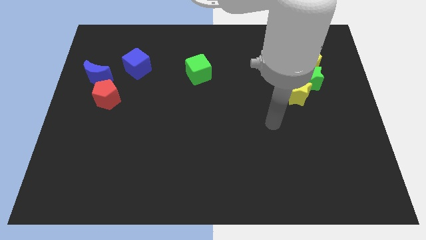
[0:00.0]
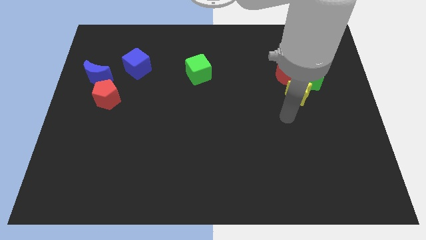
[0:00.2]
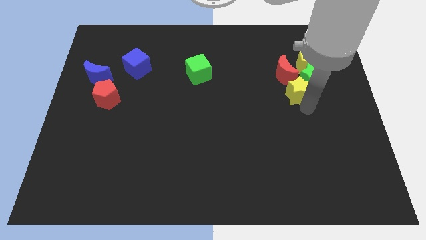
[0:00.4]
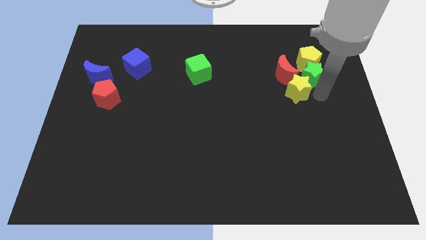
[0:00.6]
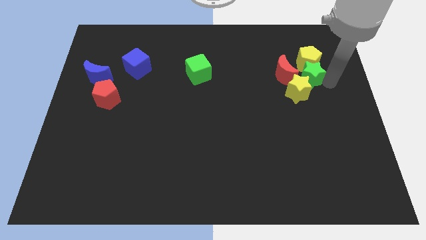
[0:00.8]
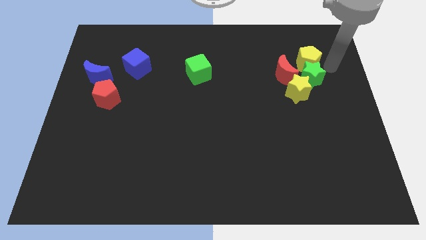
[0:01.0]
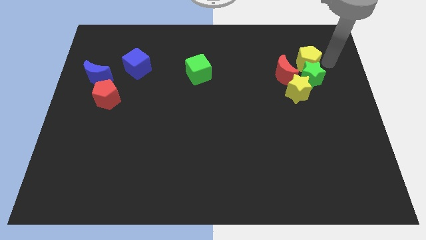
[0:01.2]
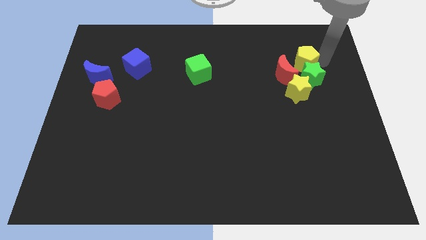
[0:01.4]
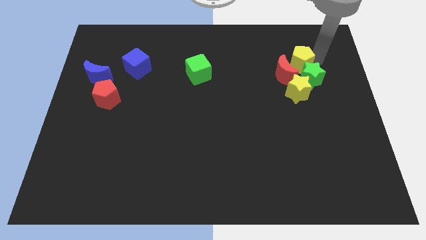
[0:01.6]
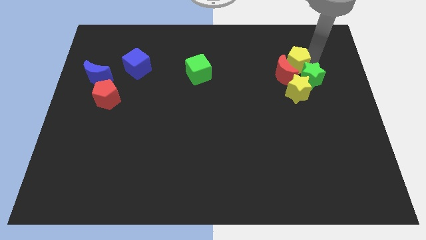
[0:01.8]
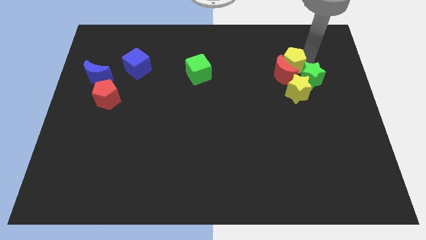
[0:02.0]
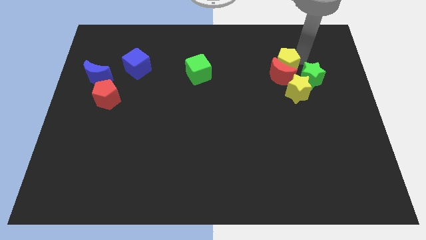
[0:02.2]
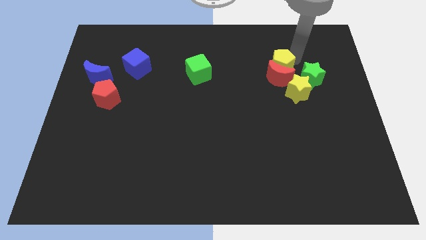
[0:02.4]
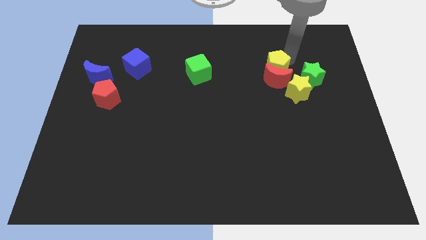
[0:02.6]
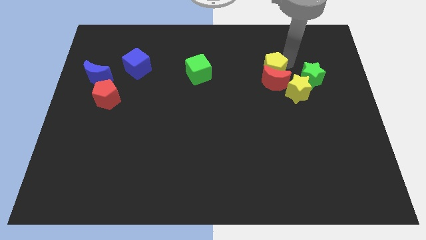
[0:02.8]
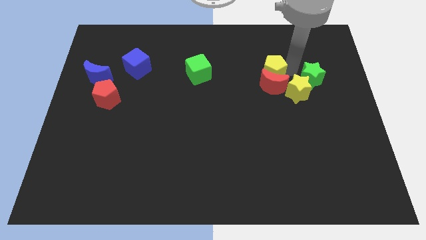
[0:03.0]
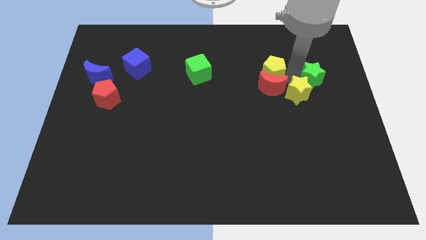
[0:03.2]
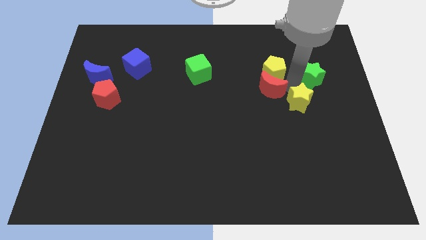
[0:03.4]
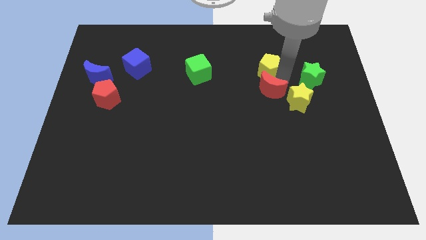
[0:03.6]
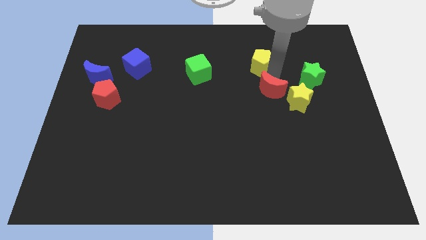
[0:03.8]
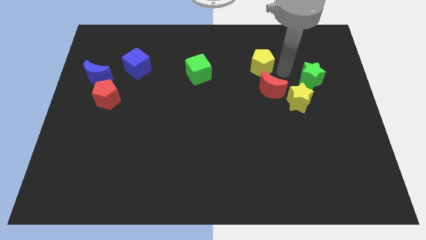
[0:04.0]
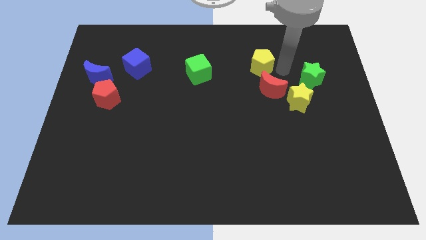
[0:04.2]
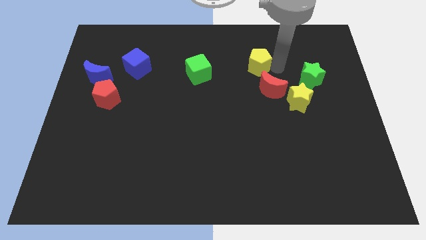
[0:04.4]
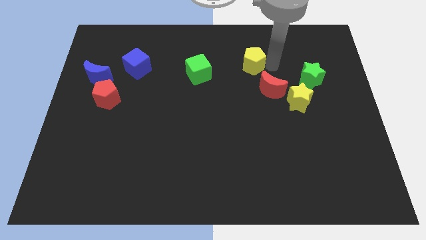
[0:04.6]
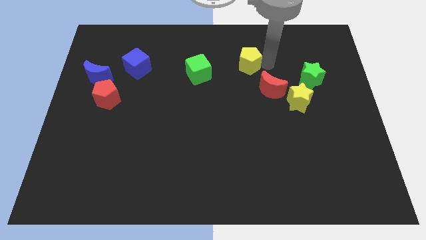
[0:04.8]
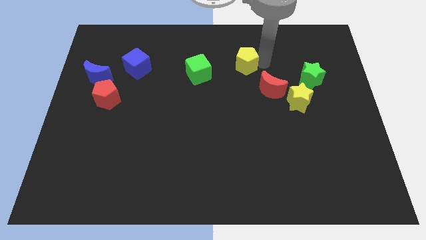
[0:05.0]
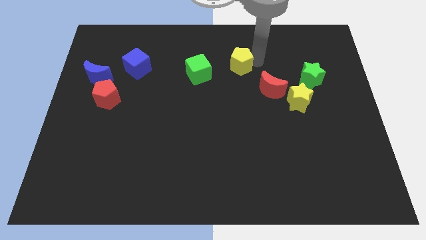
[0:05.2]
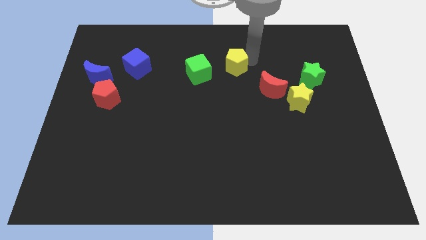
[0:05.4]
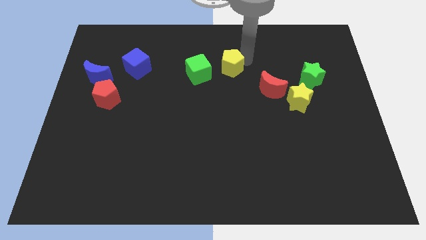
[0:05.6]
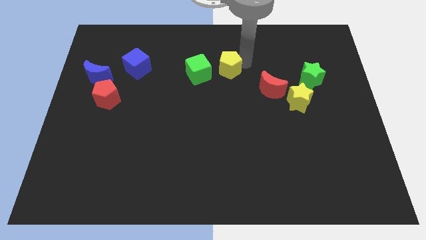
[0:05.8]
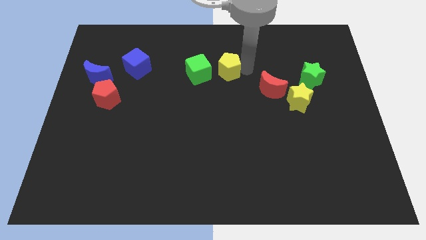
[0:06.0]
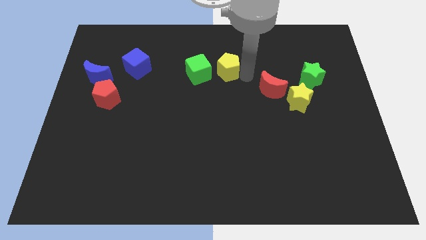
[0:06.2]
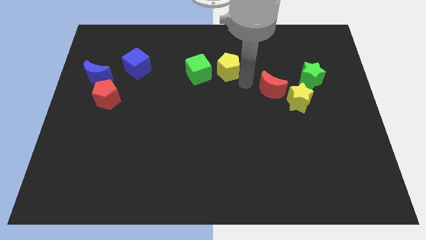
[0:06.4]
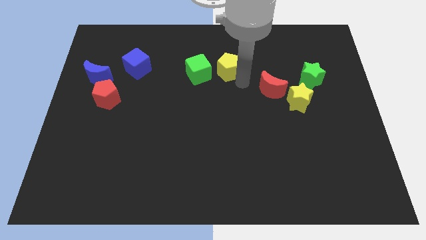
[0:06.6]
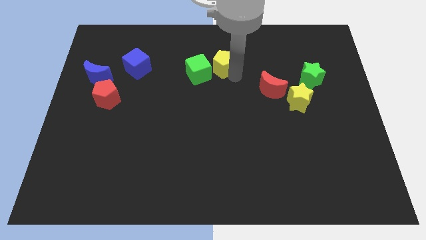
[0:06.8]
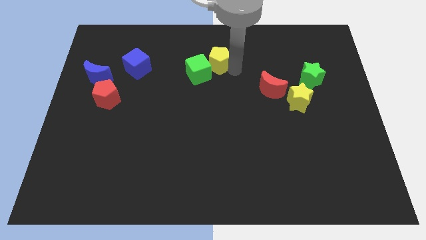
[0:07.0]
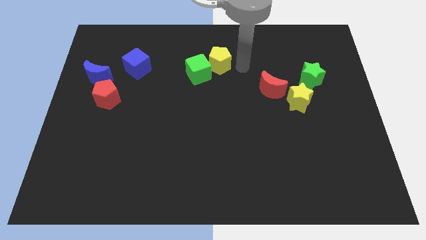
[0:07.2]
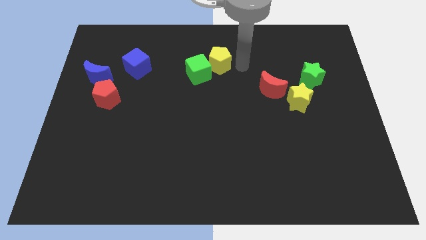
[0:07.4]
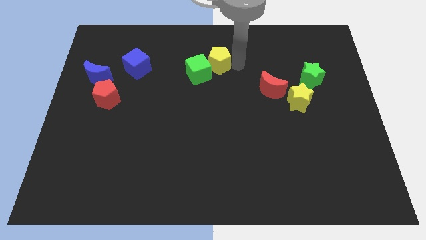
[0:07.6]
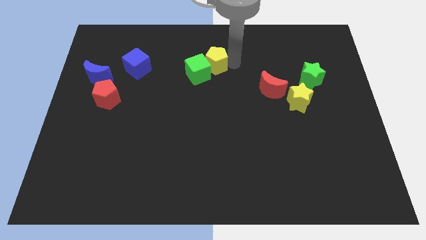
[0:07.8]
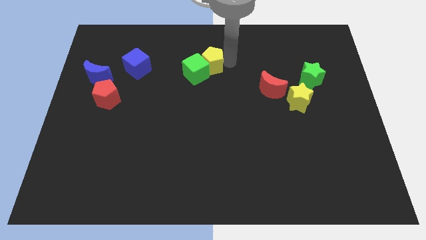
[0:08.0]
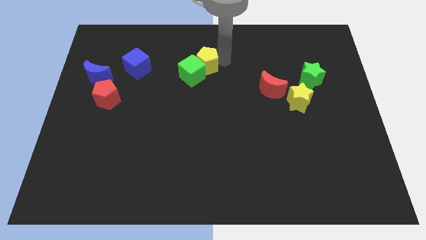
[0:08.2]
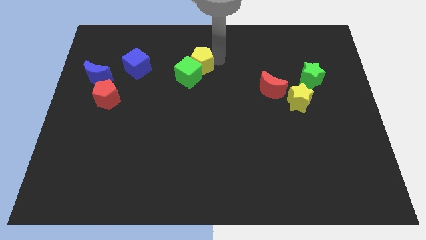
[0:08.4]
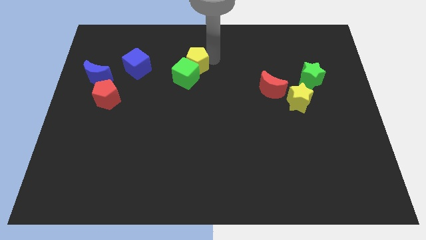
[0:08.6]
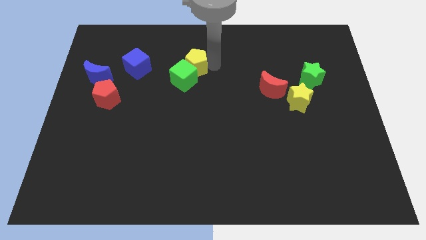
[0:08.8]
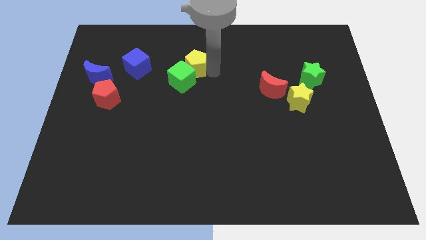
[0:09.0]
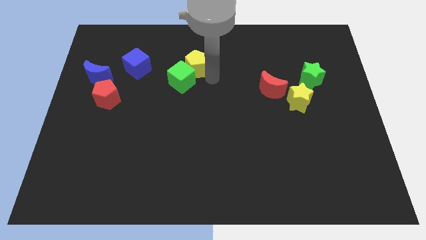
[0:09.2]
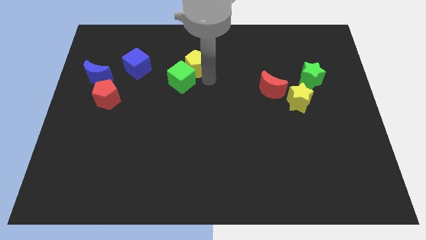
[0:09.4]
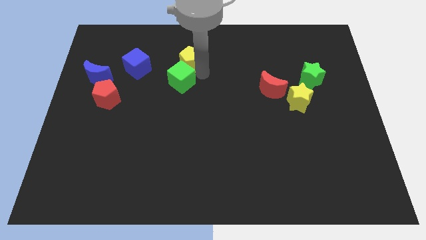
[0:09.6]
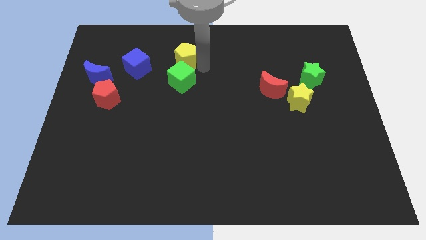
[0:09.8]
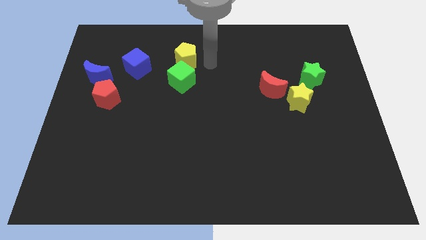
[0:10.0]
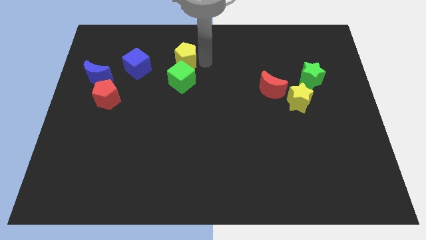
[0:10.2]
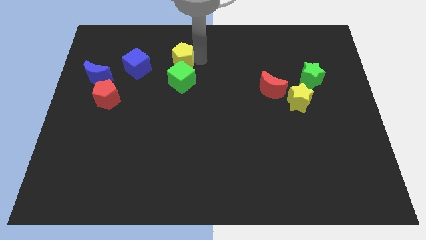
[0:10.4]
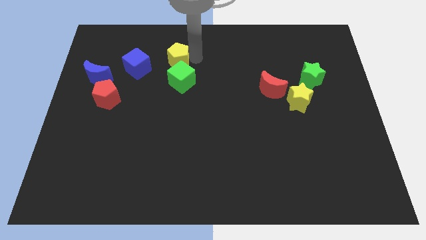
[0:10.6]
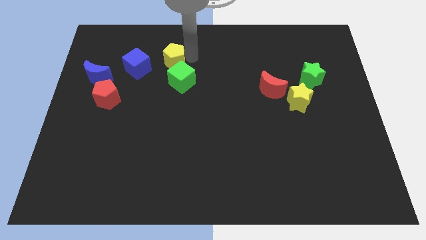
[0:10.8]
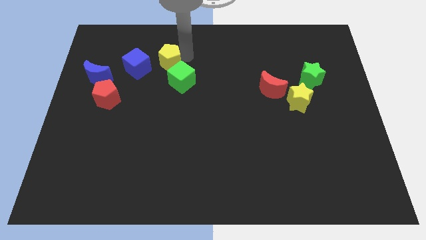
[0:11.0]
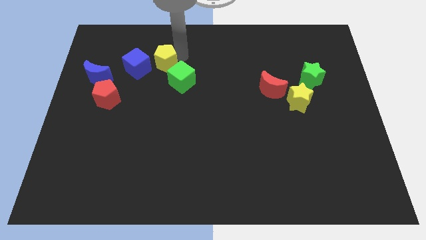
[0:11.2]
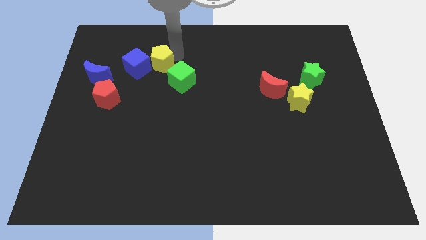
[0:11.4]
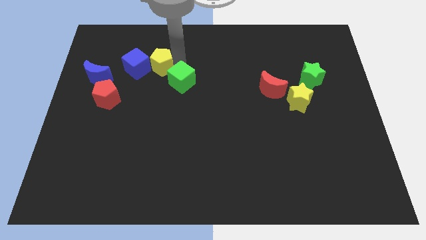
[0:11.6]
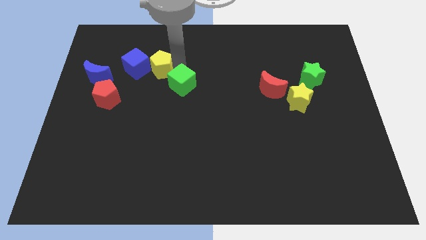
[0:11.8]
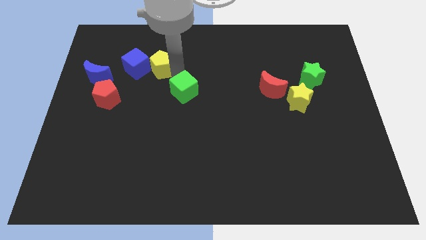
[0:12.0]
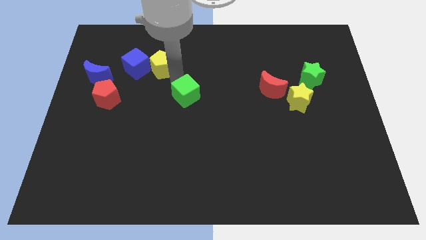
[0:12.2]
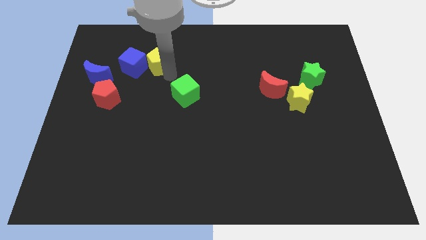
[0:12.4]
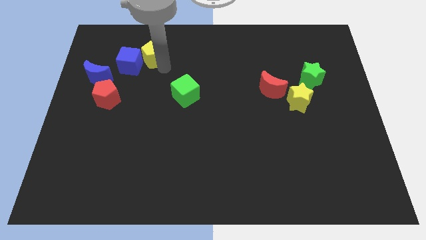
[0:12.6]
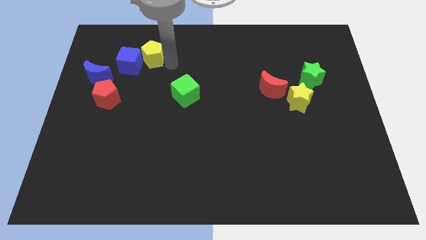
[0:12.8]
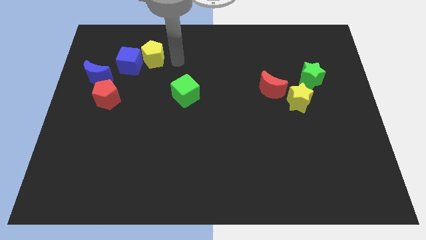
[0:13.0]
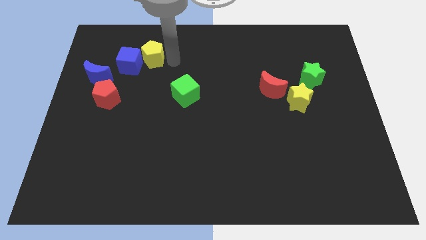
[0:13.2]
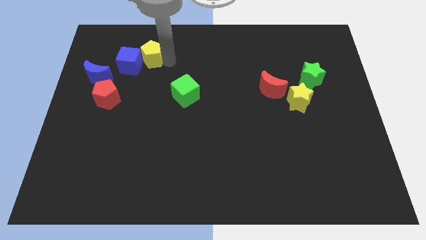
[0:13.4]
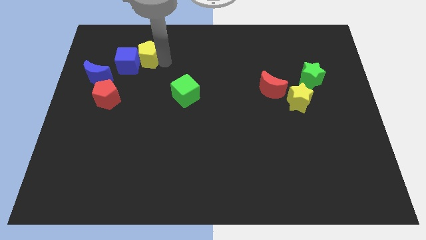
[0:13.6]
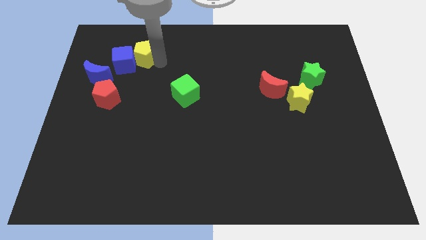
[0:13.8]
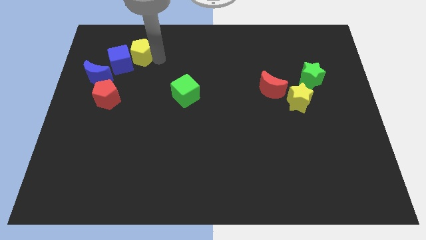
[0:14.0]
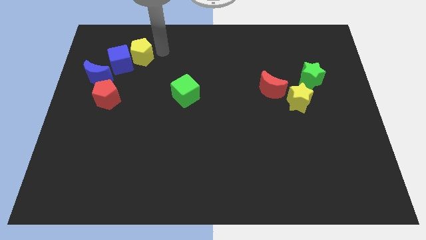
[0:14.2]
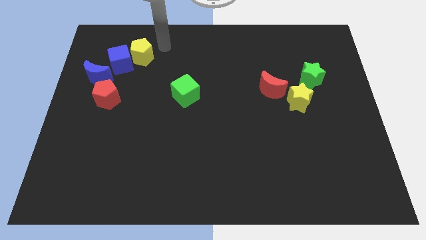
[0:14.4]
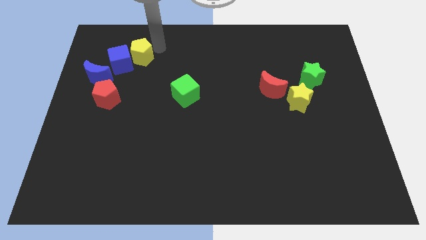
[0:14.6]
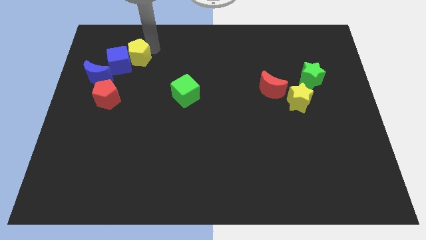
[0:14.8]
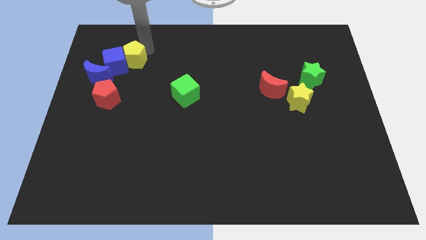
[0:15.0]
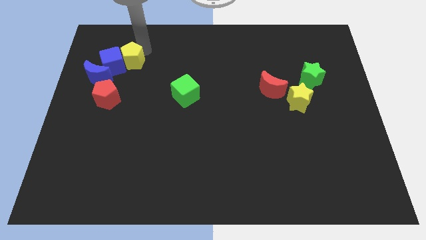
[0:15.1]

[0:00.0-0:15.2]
slide the yellow pentagon above the red pentagon
